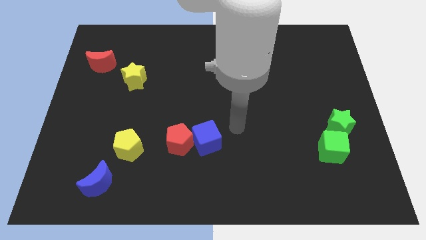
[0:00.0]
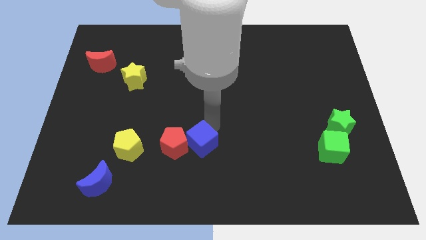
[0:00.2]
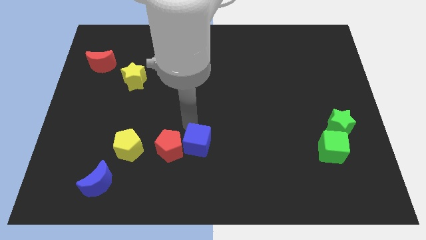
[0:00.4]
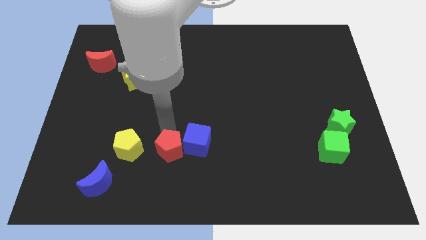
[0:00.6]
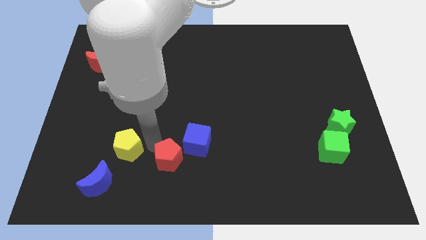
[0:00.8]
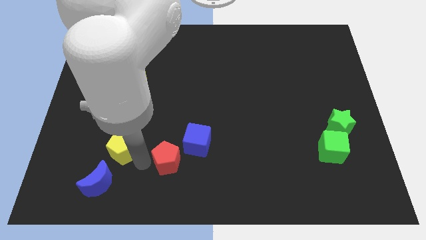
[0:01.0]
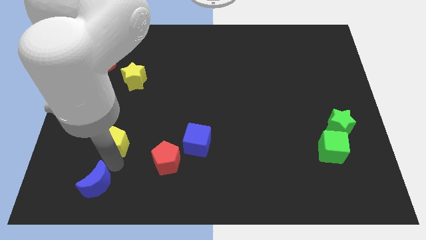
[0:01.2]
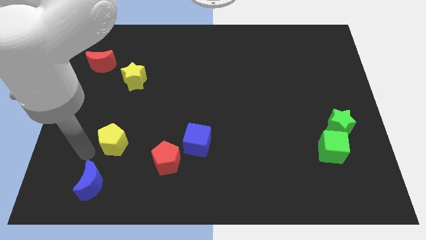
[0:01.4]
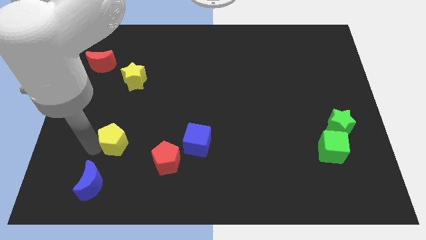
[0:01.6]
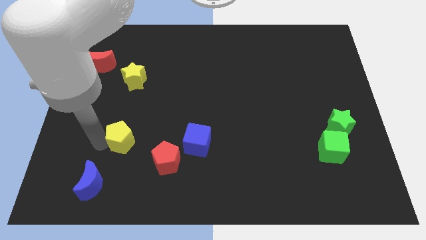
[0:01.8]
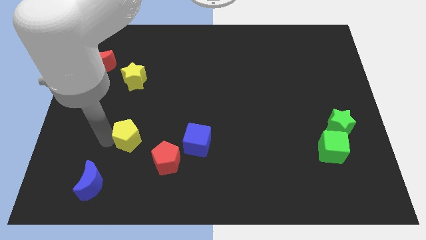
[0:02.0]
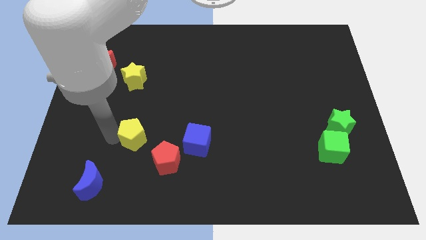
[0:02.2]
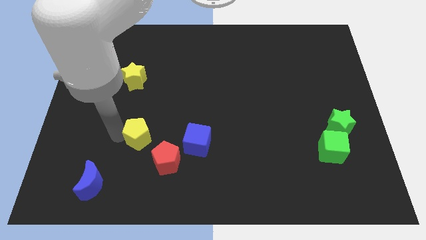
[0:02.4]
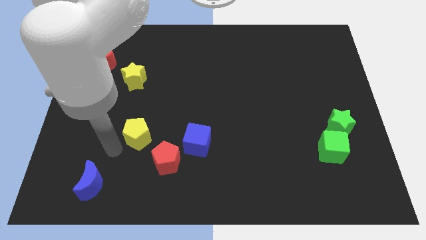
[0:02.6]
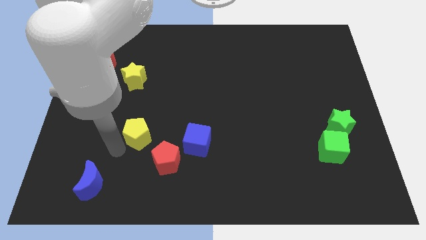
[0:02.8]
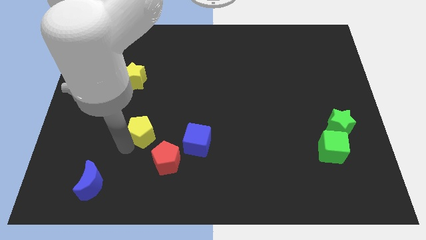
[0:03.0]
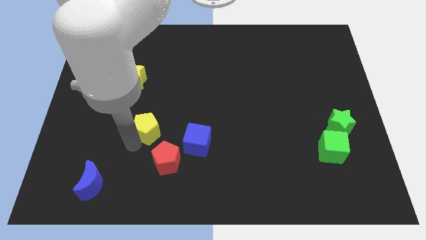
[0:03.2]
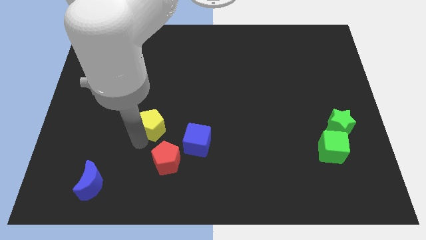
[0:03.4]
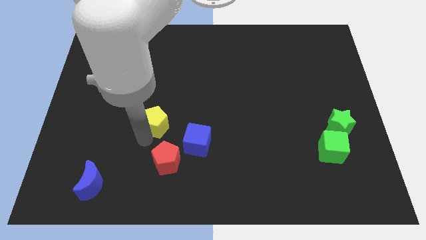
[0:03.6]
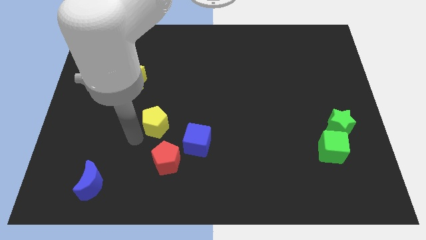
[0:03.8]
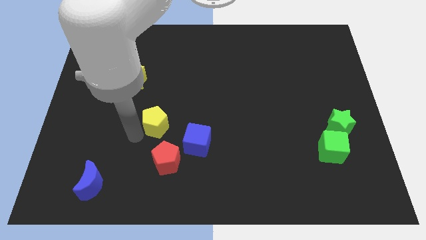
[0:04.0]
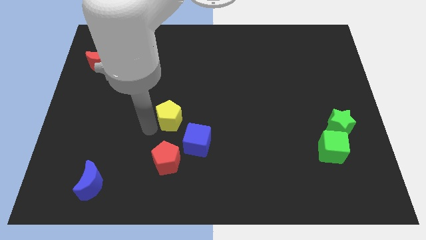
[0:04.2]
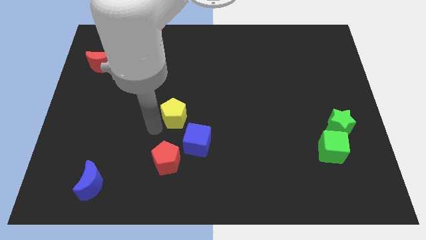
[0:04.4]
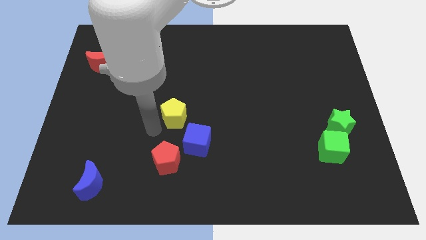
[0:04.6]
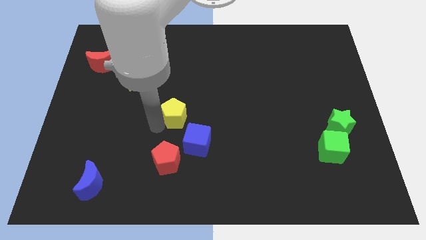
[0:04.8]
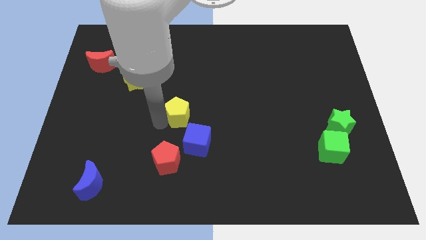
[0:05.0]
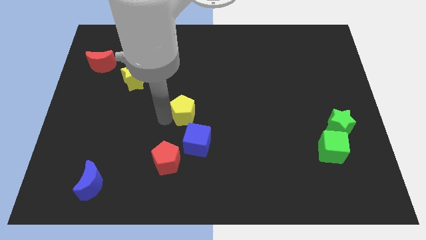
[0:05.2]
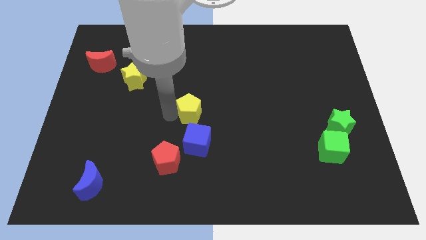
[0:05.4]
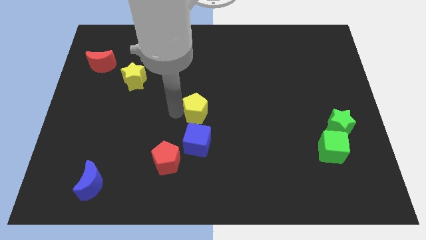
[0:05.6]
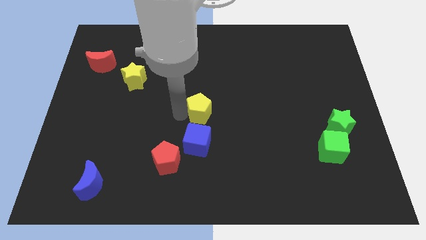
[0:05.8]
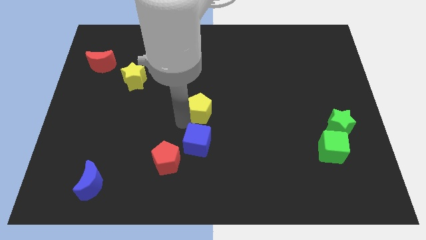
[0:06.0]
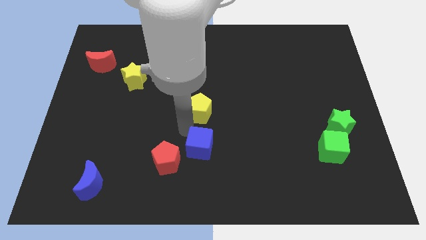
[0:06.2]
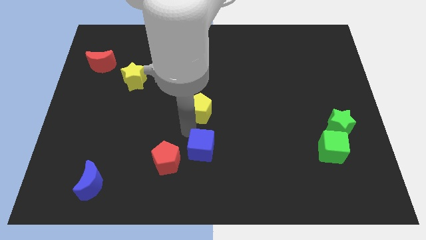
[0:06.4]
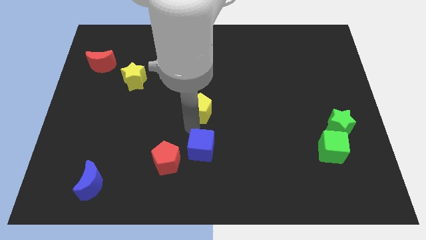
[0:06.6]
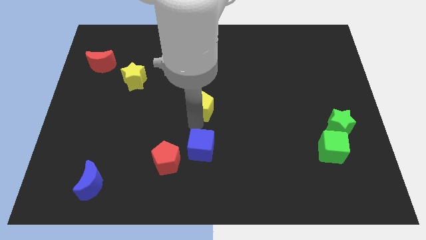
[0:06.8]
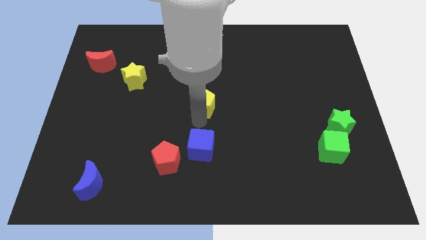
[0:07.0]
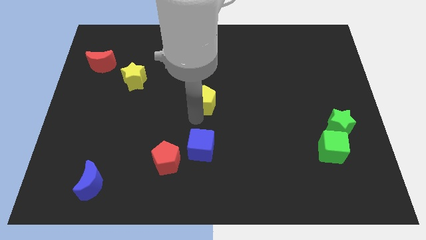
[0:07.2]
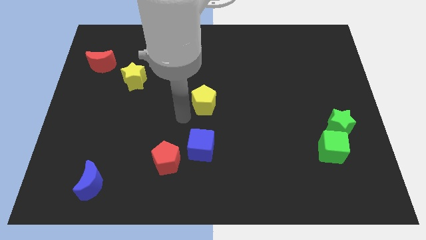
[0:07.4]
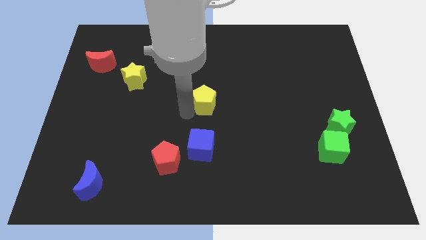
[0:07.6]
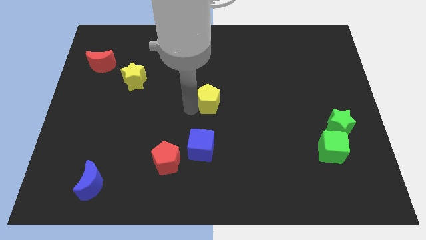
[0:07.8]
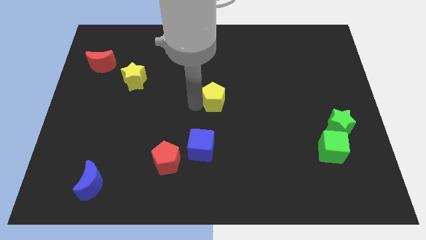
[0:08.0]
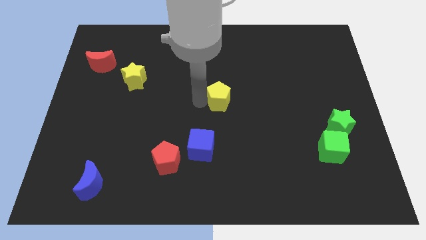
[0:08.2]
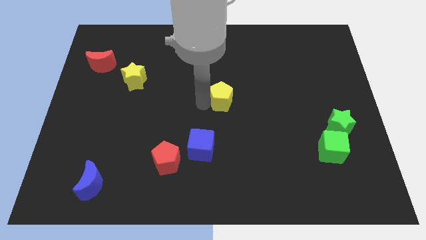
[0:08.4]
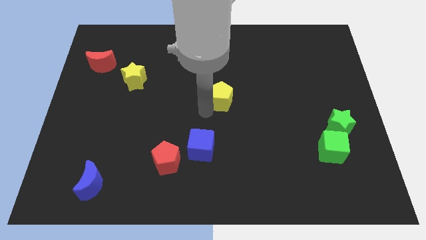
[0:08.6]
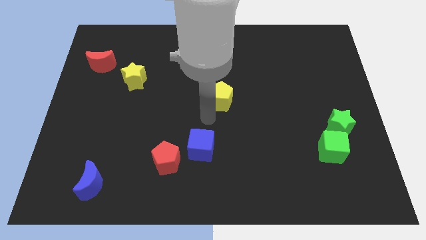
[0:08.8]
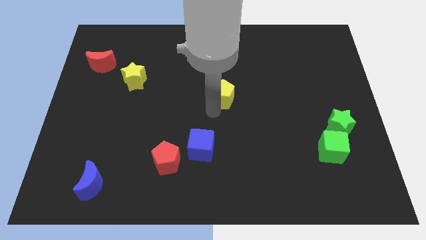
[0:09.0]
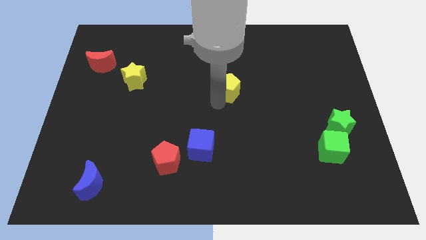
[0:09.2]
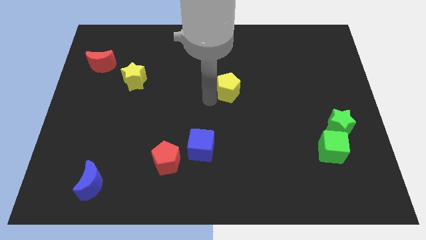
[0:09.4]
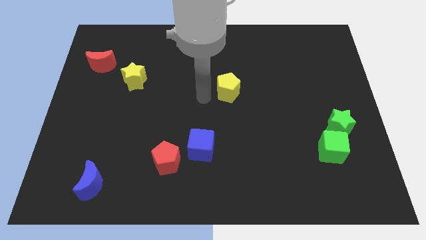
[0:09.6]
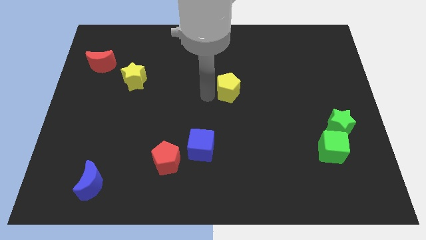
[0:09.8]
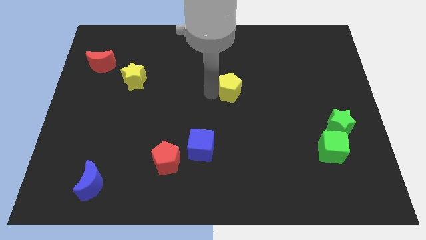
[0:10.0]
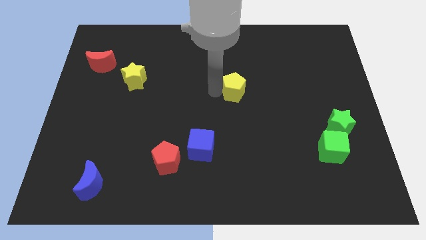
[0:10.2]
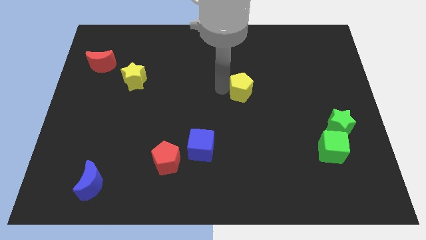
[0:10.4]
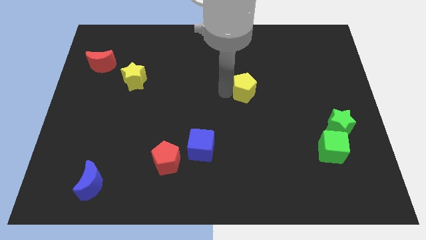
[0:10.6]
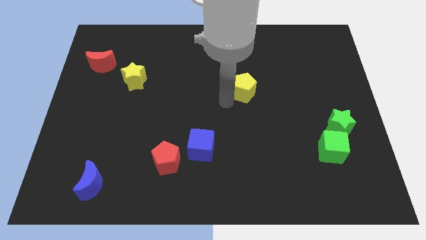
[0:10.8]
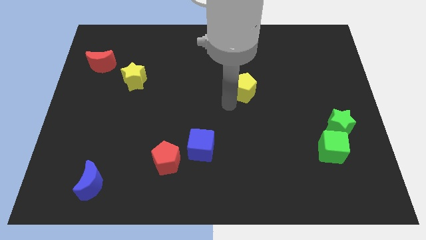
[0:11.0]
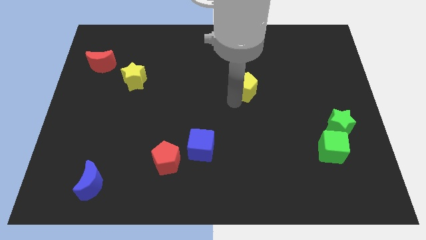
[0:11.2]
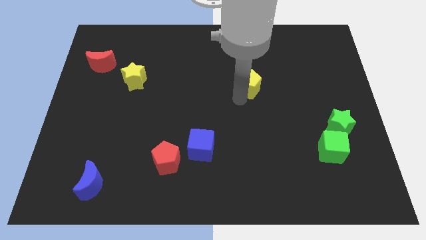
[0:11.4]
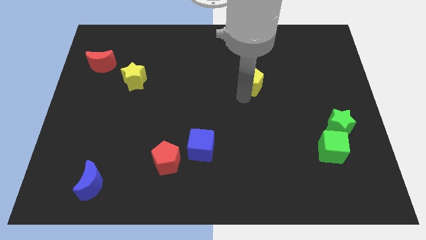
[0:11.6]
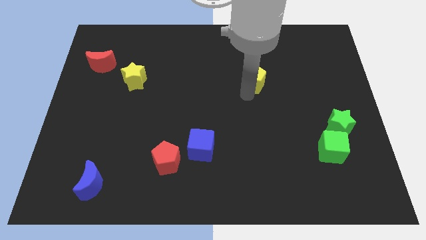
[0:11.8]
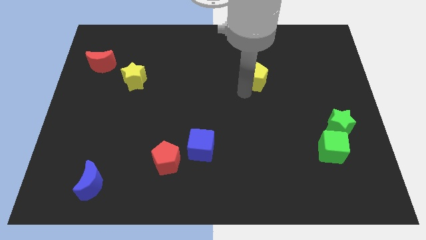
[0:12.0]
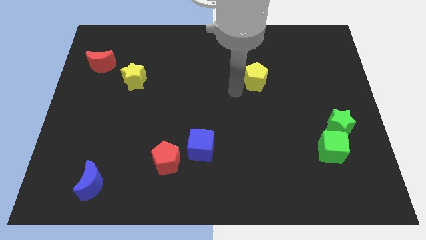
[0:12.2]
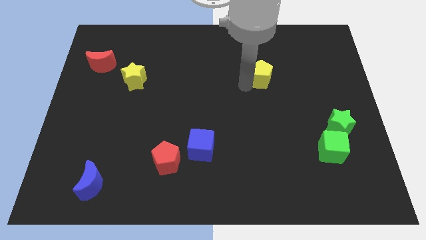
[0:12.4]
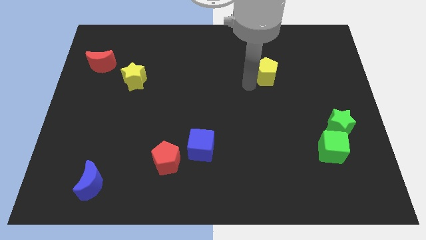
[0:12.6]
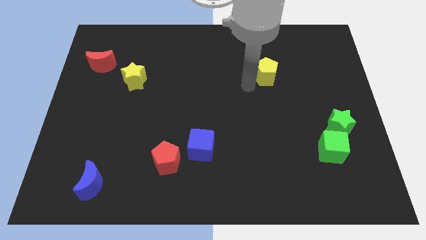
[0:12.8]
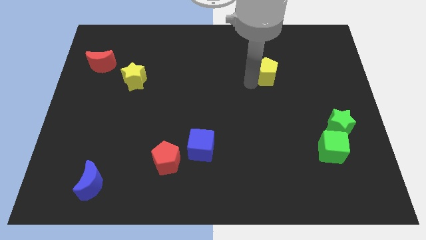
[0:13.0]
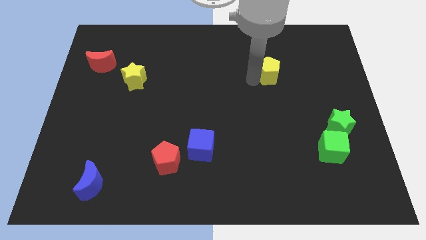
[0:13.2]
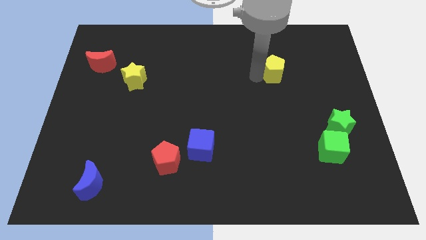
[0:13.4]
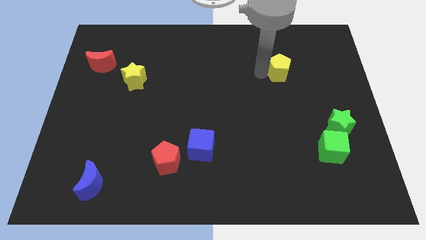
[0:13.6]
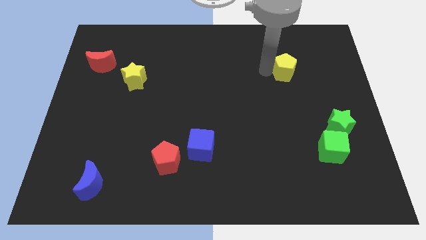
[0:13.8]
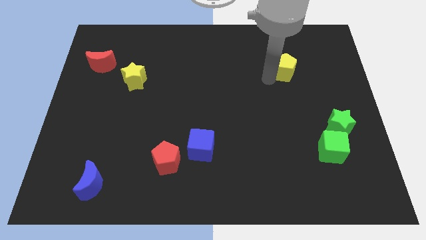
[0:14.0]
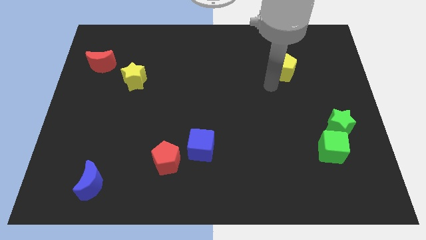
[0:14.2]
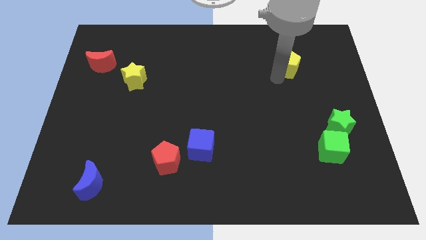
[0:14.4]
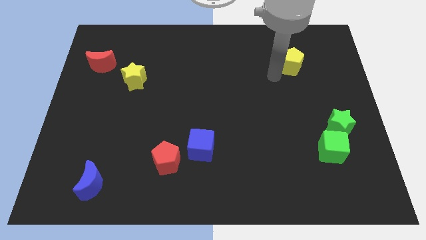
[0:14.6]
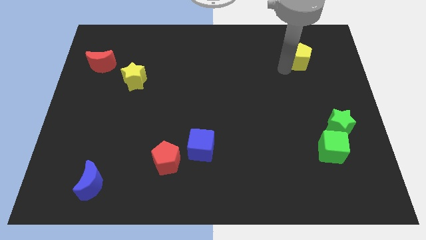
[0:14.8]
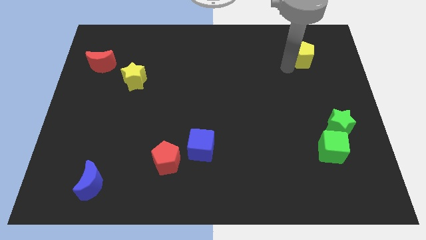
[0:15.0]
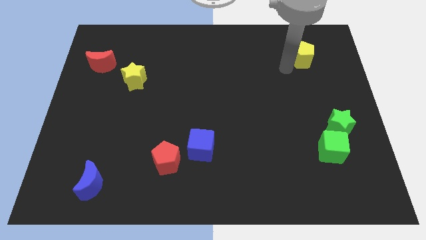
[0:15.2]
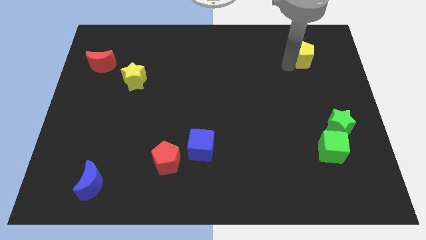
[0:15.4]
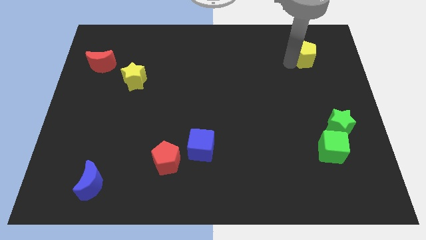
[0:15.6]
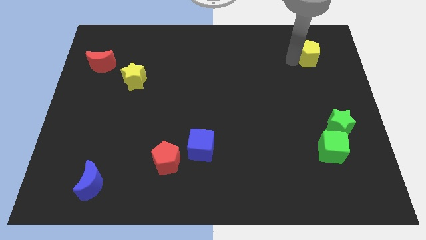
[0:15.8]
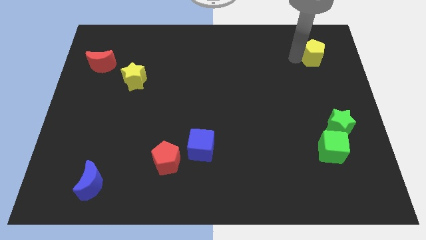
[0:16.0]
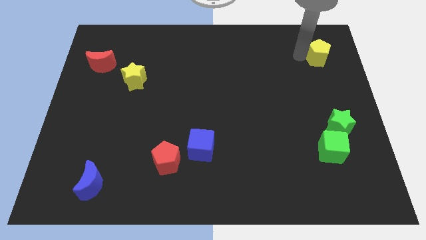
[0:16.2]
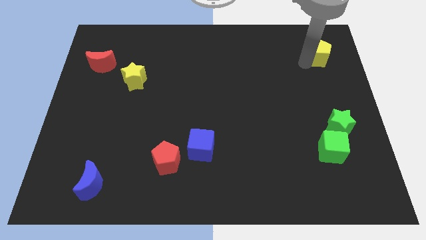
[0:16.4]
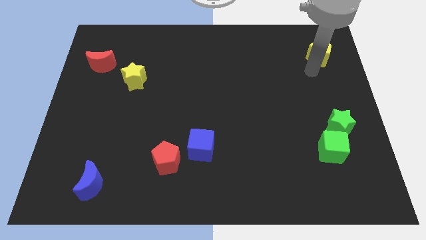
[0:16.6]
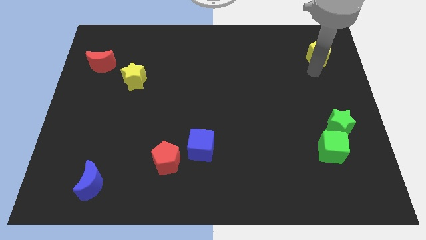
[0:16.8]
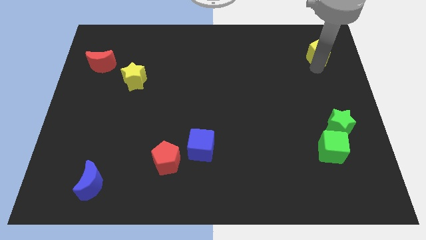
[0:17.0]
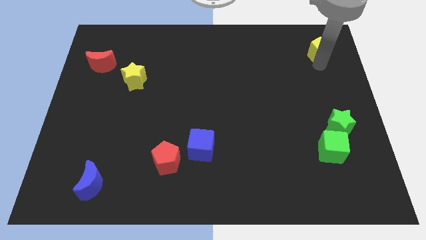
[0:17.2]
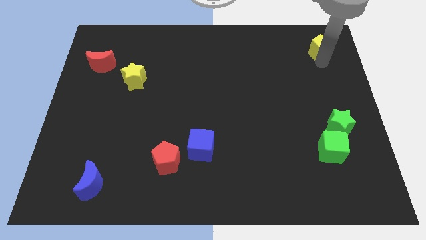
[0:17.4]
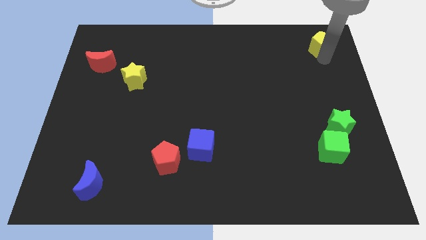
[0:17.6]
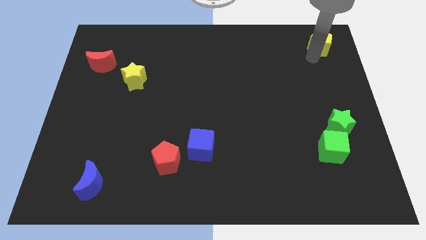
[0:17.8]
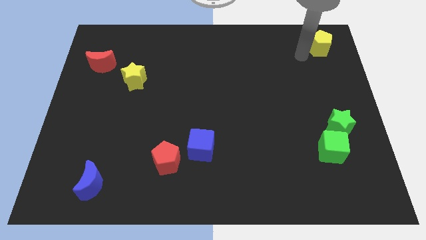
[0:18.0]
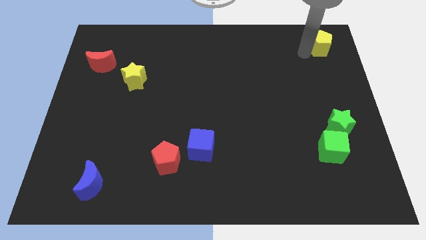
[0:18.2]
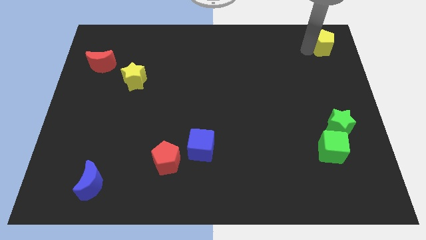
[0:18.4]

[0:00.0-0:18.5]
put the yellow pentagon to the top right of the board
